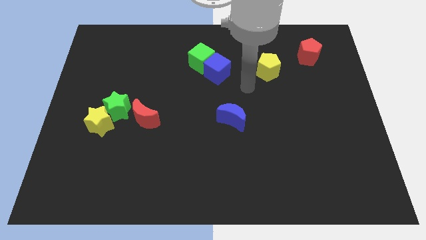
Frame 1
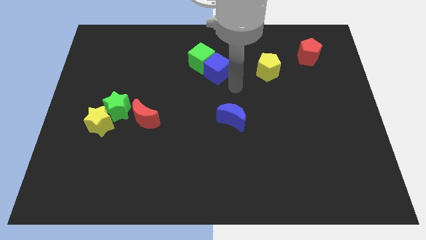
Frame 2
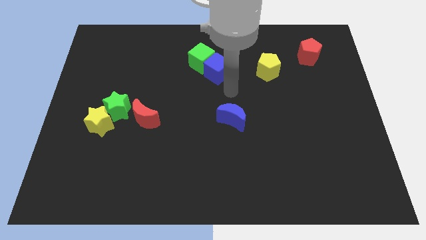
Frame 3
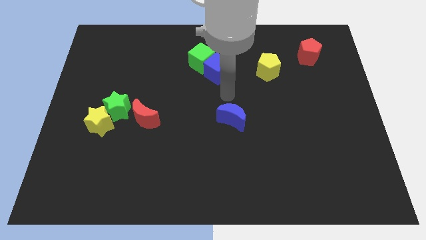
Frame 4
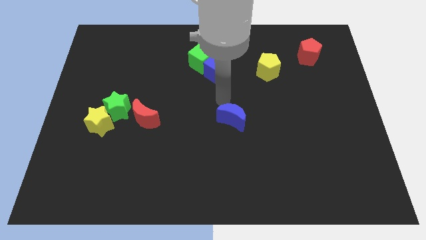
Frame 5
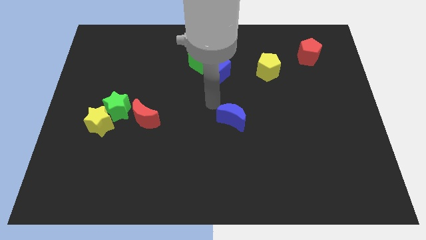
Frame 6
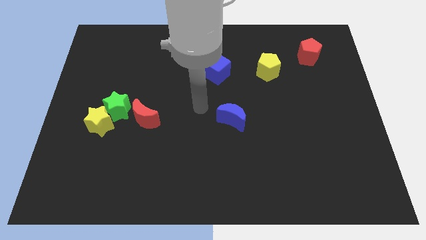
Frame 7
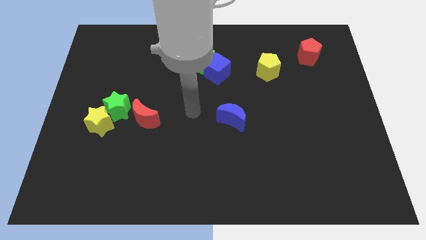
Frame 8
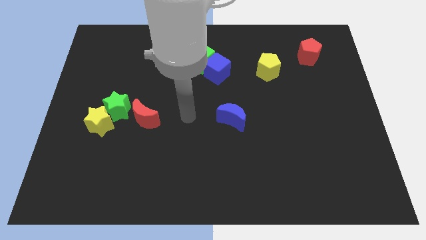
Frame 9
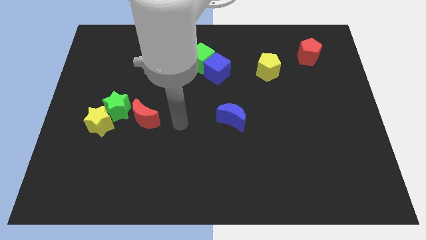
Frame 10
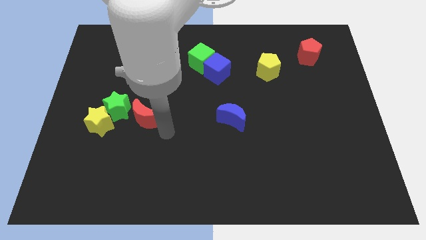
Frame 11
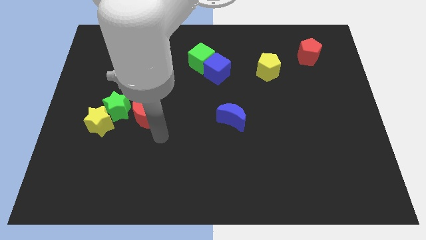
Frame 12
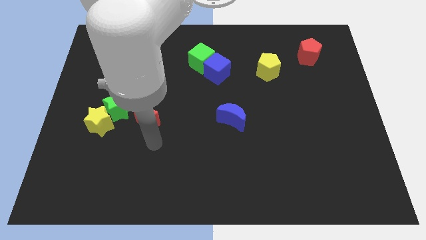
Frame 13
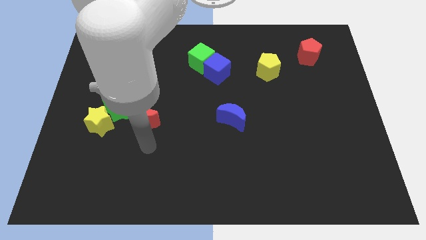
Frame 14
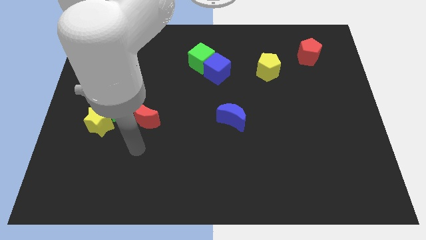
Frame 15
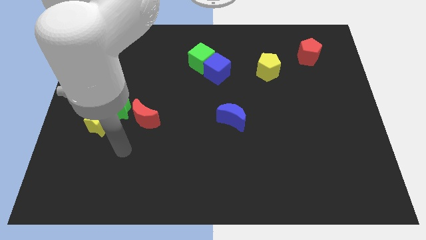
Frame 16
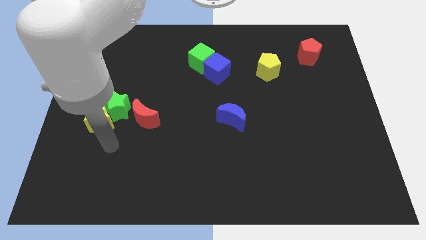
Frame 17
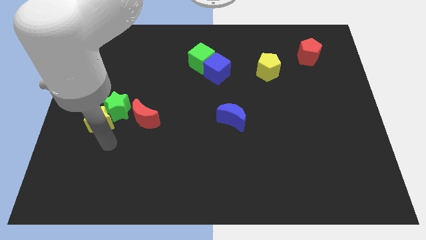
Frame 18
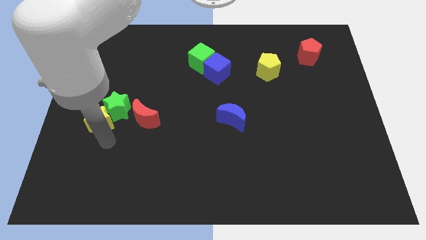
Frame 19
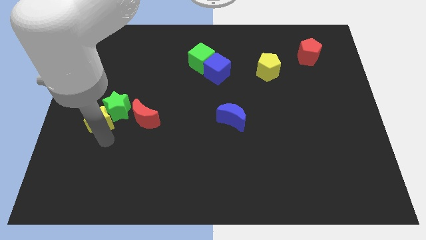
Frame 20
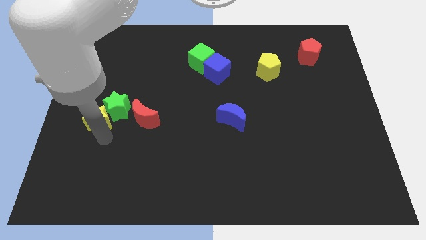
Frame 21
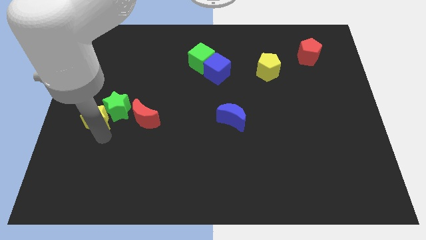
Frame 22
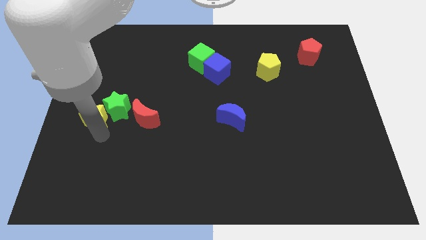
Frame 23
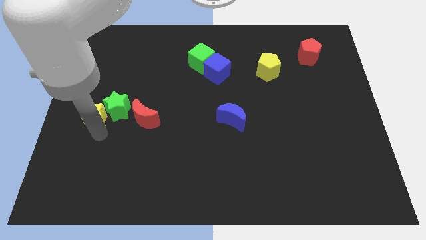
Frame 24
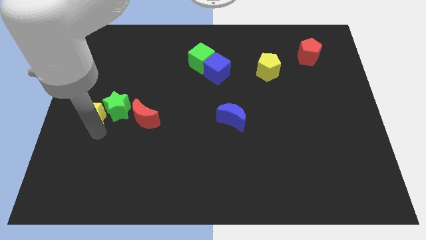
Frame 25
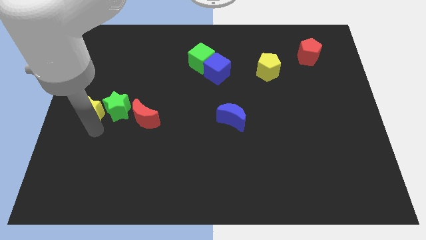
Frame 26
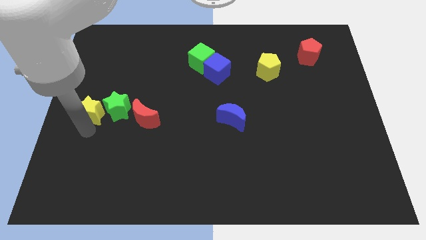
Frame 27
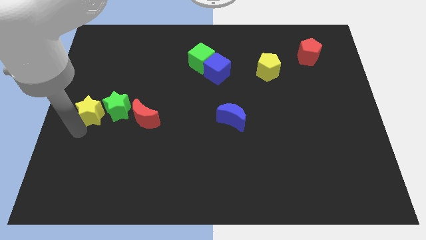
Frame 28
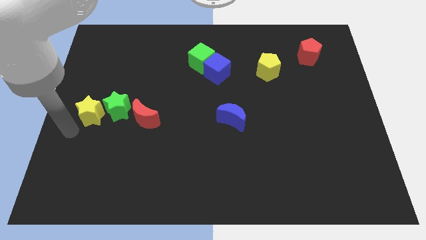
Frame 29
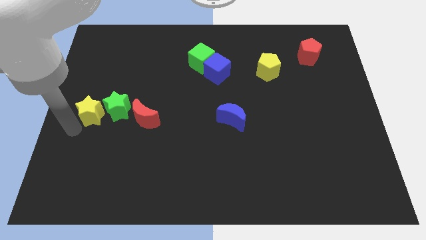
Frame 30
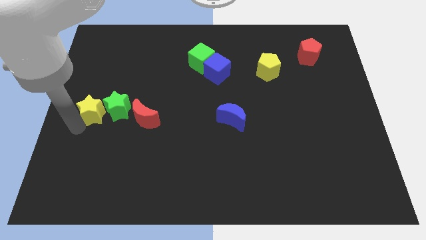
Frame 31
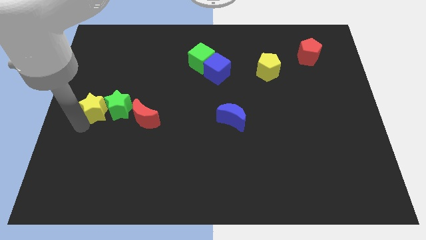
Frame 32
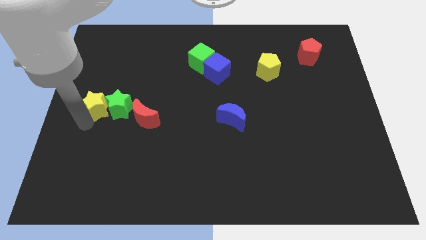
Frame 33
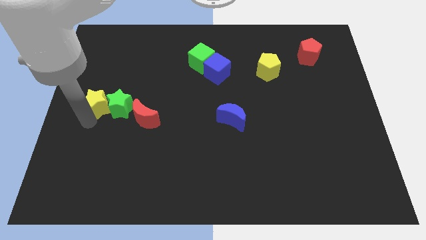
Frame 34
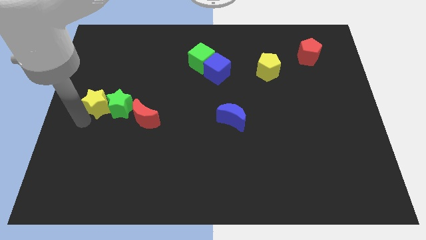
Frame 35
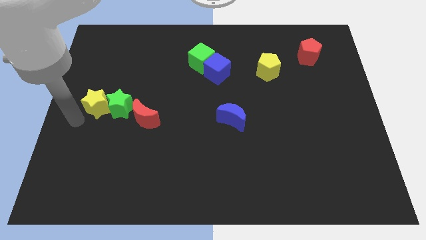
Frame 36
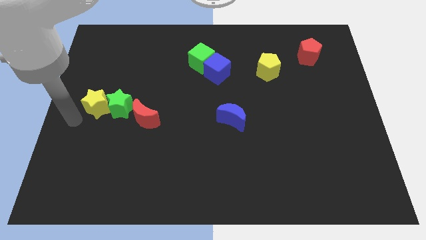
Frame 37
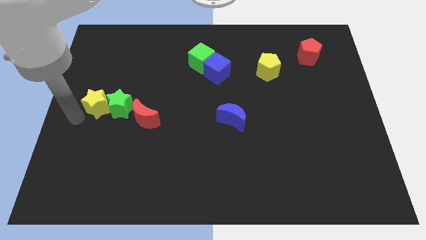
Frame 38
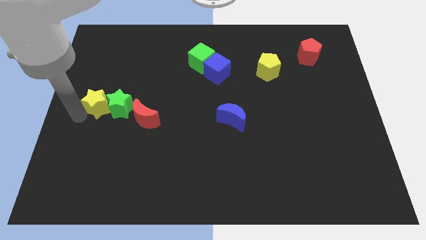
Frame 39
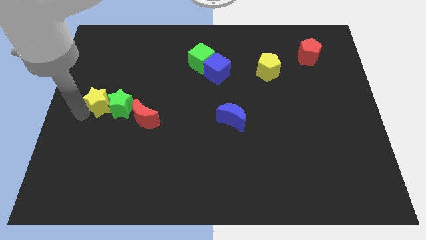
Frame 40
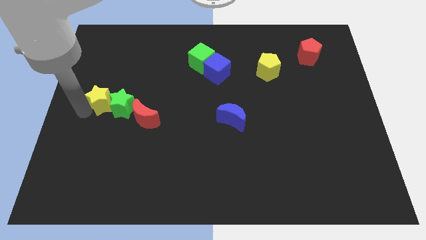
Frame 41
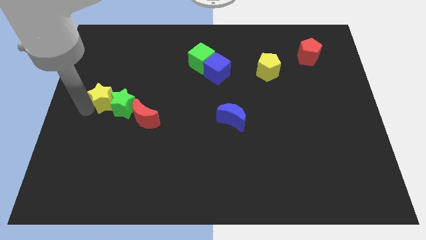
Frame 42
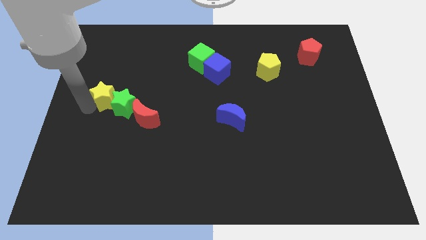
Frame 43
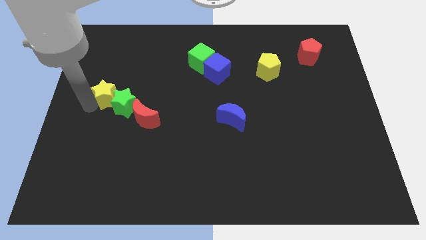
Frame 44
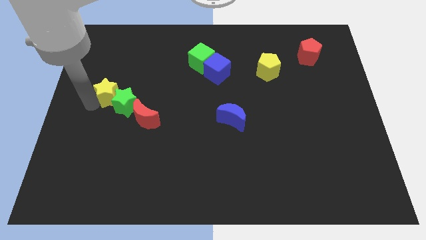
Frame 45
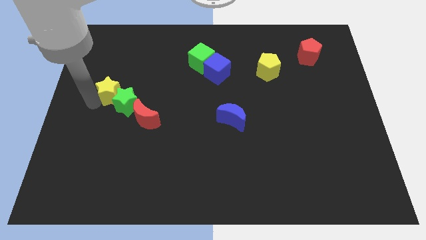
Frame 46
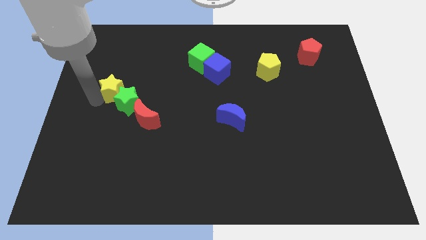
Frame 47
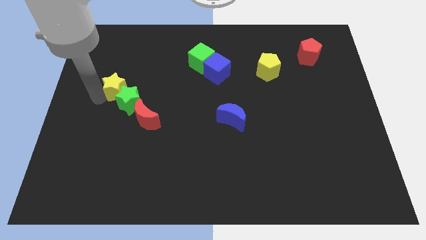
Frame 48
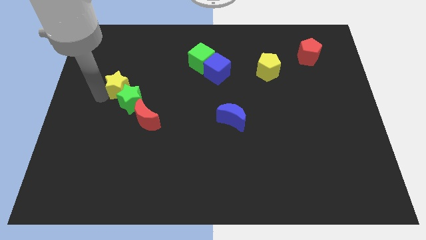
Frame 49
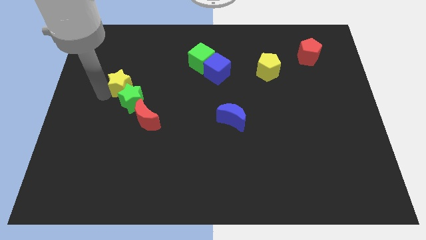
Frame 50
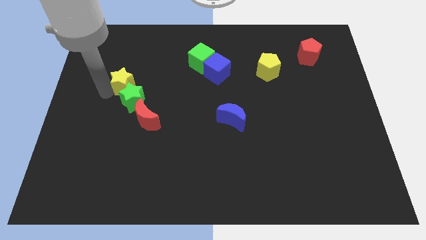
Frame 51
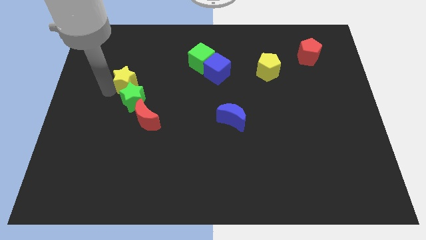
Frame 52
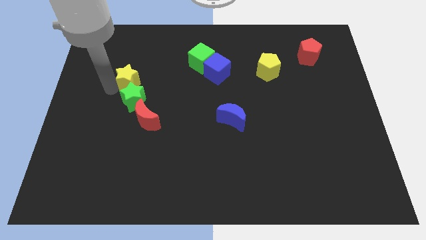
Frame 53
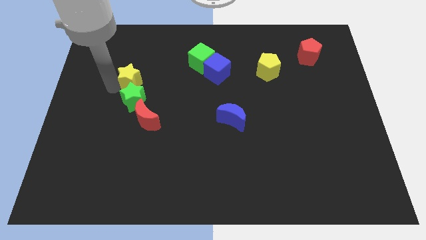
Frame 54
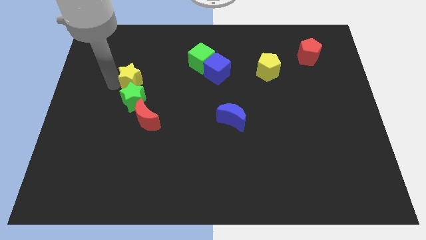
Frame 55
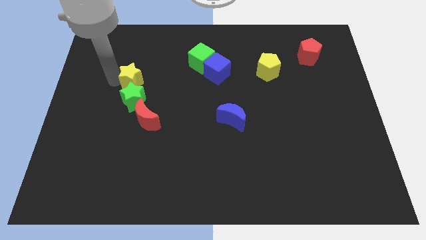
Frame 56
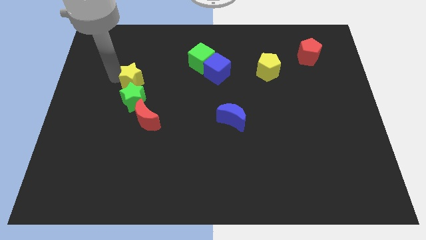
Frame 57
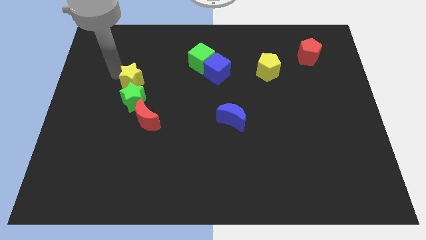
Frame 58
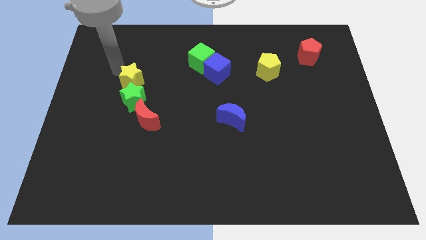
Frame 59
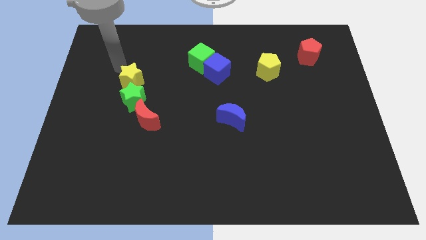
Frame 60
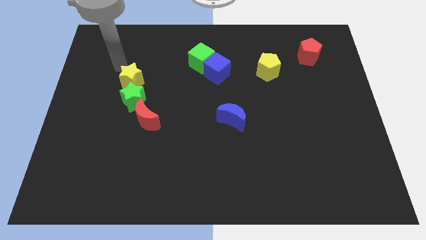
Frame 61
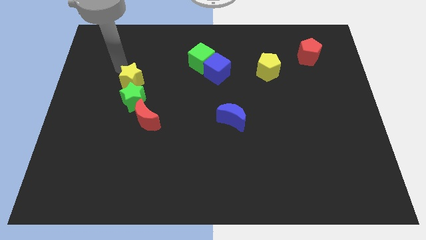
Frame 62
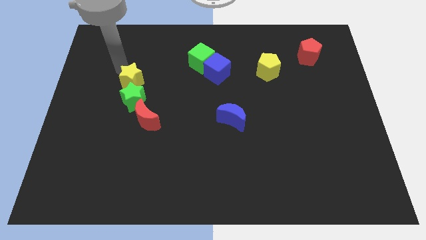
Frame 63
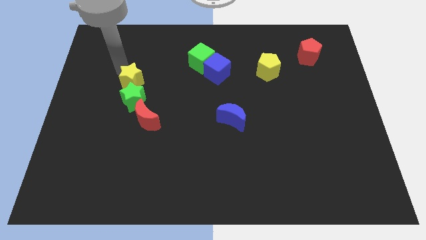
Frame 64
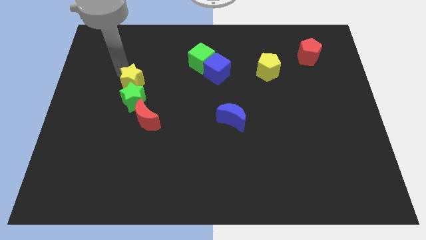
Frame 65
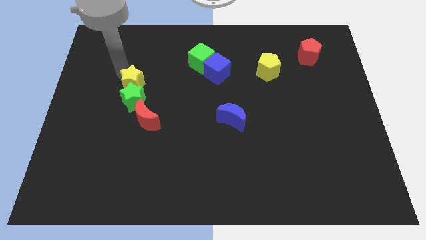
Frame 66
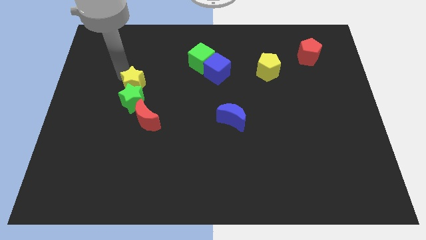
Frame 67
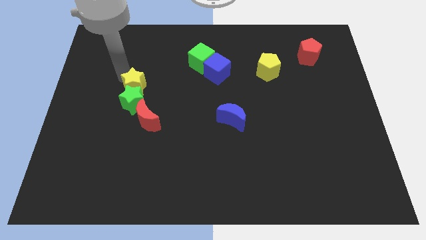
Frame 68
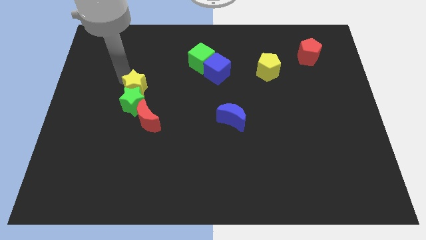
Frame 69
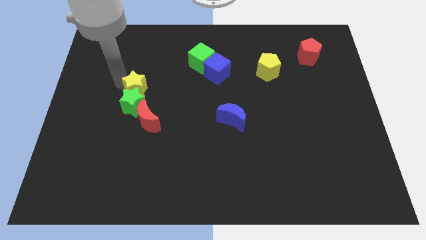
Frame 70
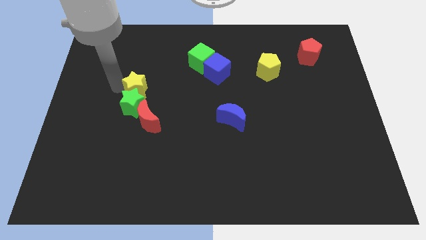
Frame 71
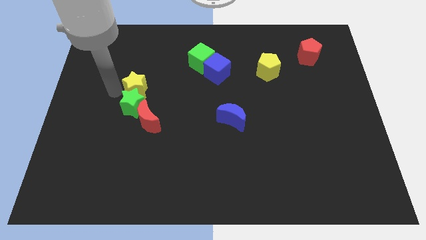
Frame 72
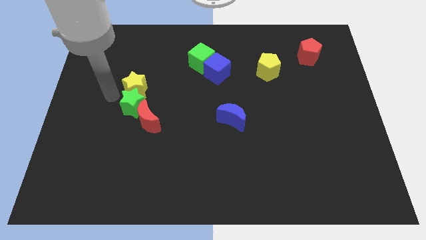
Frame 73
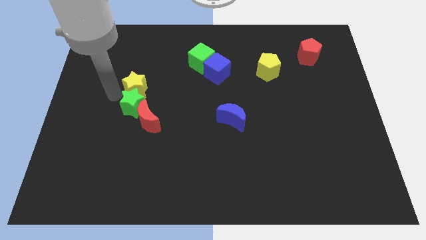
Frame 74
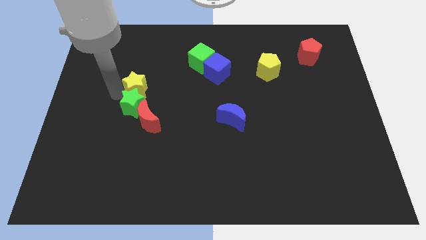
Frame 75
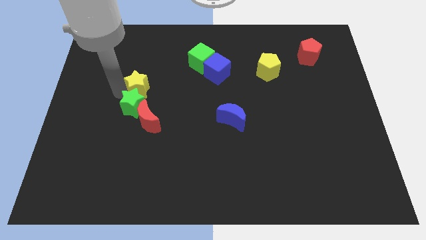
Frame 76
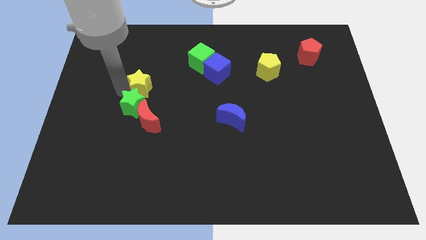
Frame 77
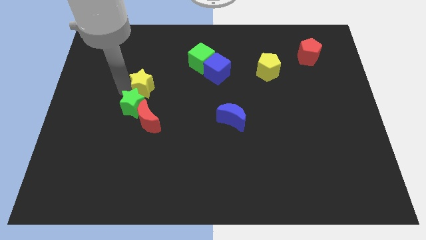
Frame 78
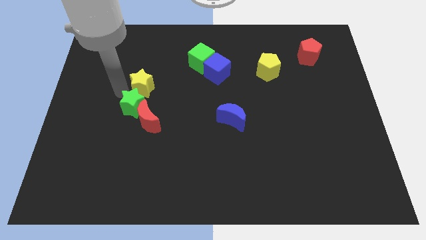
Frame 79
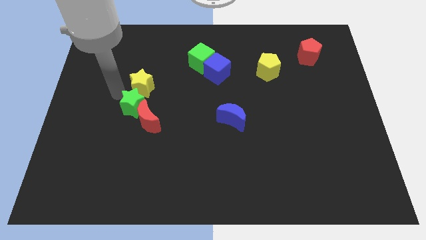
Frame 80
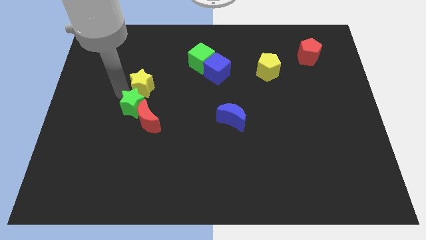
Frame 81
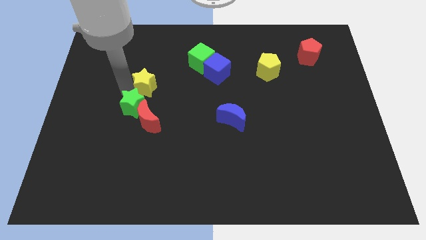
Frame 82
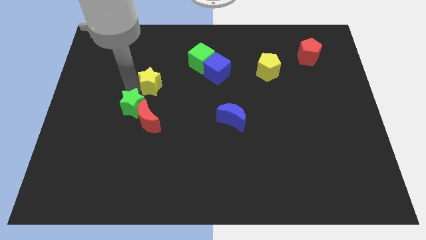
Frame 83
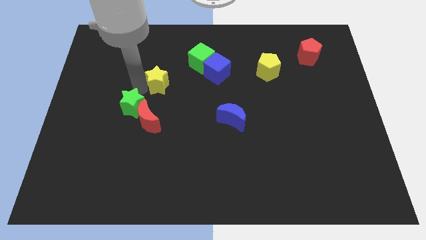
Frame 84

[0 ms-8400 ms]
push the yellow star just left of the blue cube
